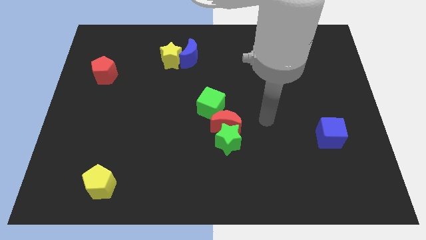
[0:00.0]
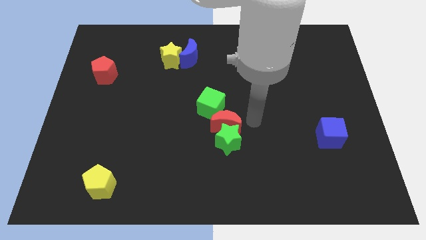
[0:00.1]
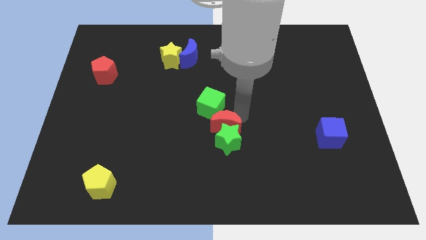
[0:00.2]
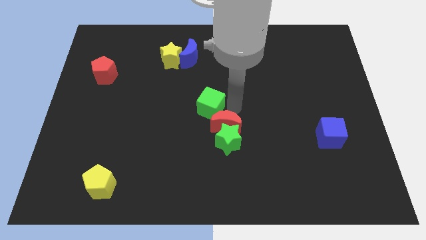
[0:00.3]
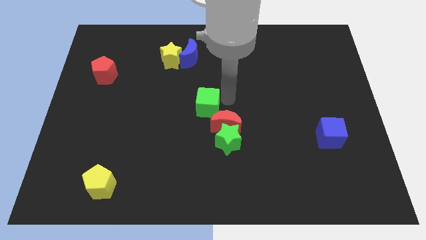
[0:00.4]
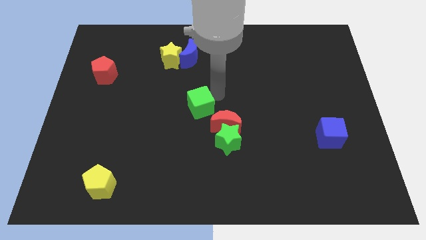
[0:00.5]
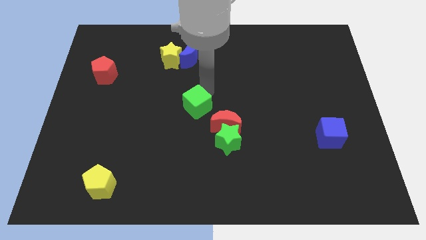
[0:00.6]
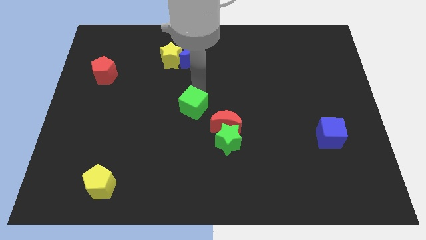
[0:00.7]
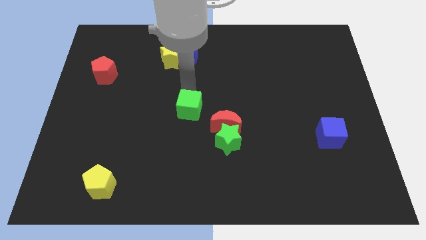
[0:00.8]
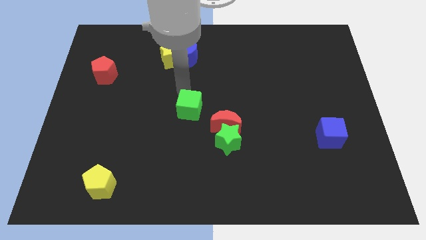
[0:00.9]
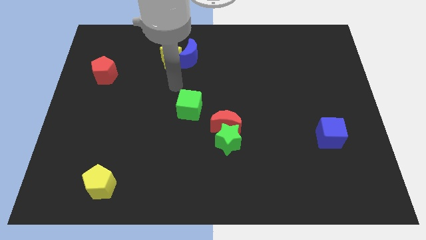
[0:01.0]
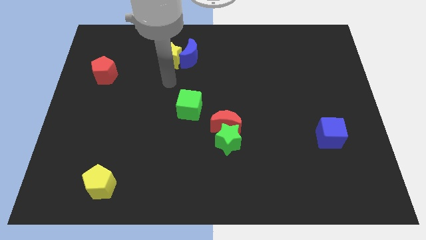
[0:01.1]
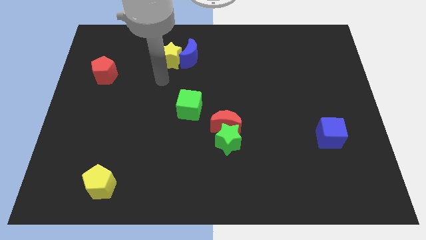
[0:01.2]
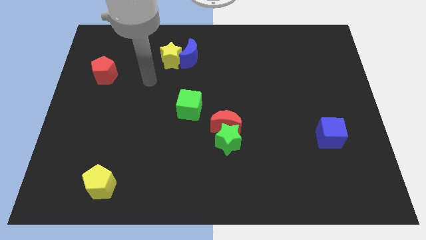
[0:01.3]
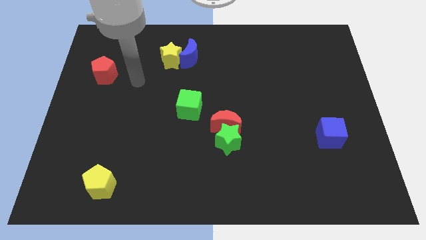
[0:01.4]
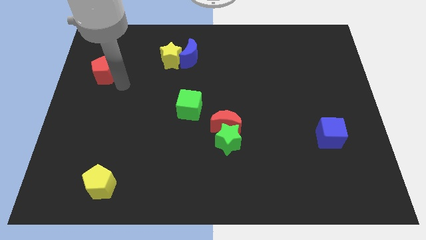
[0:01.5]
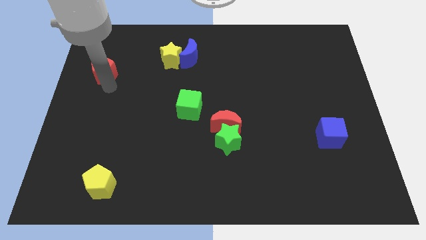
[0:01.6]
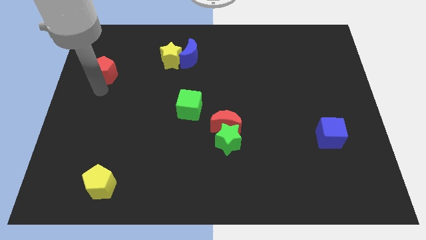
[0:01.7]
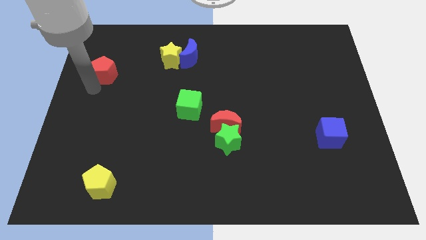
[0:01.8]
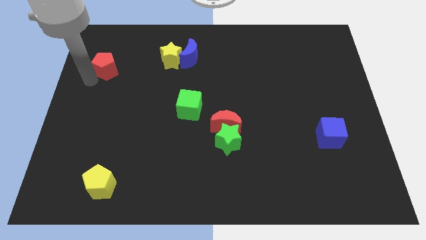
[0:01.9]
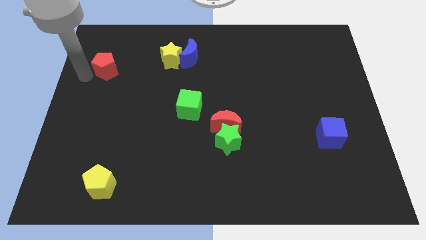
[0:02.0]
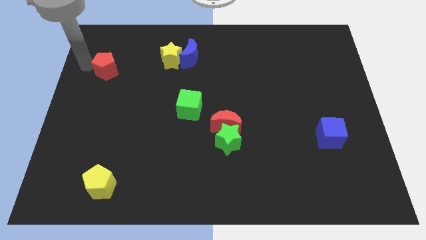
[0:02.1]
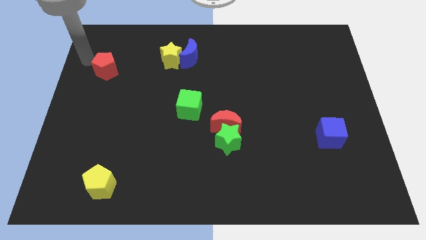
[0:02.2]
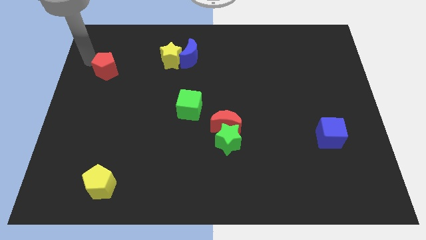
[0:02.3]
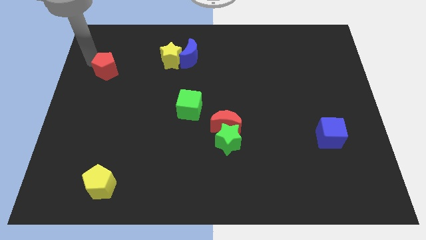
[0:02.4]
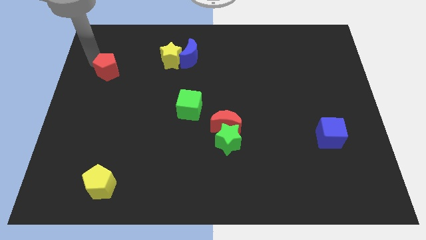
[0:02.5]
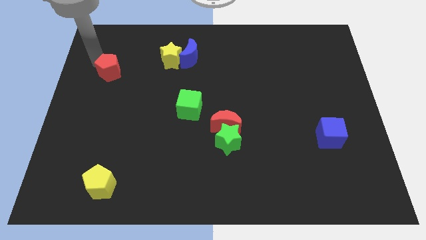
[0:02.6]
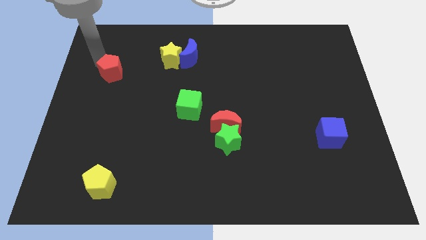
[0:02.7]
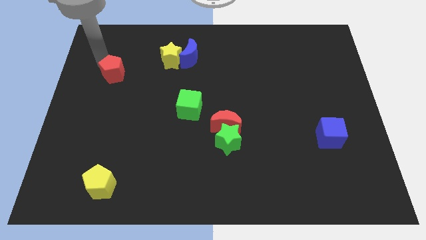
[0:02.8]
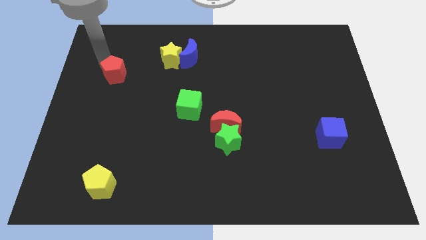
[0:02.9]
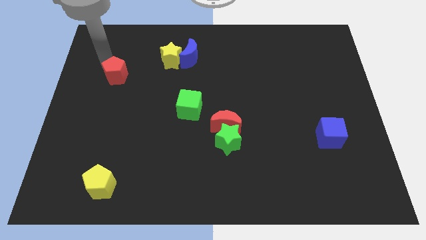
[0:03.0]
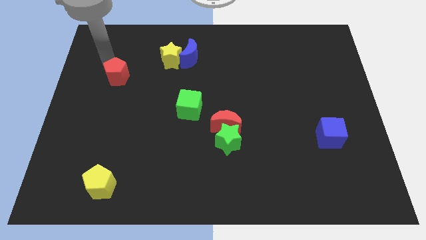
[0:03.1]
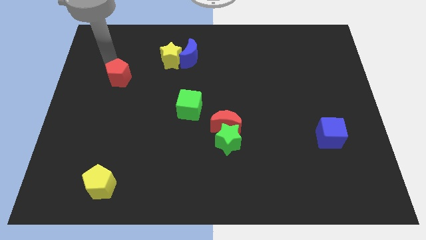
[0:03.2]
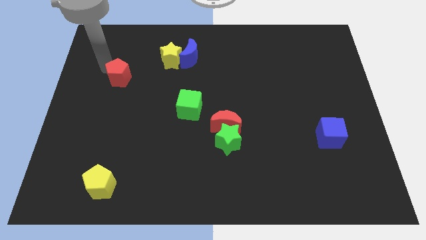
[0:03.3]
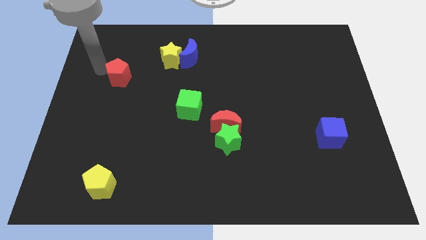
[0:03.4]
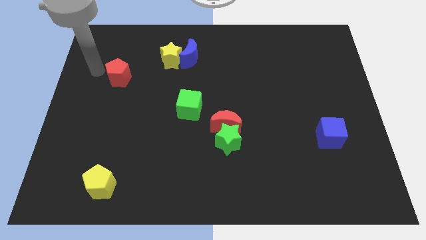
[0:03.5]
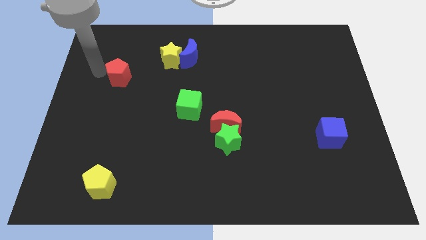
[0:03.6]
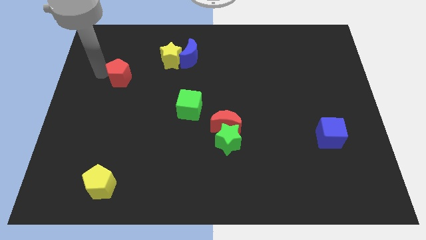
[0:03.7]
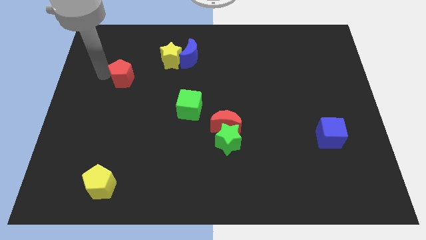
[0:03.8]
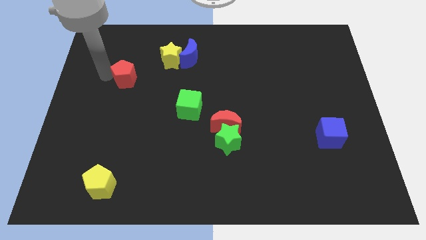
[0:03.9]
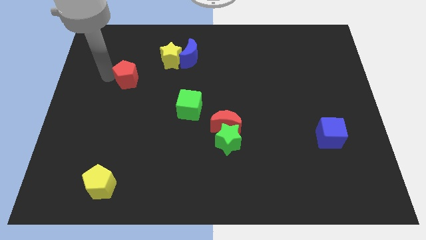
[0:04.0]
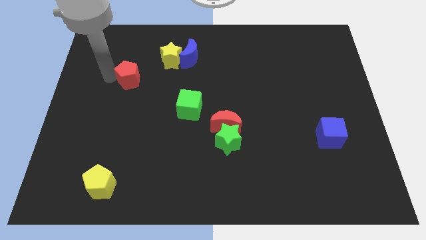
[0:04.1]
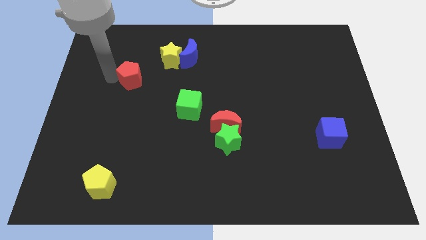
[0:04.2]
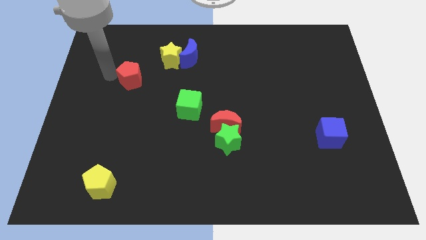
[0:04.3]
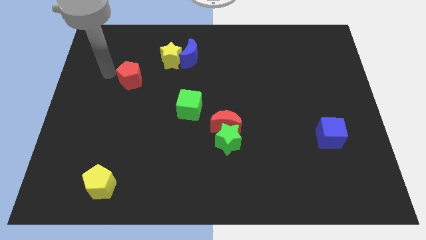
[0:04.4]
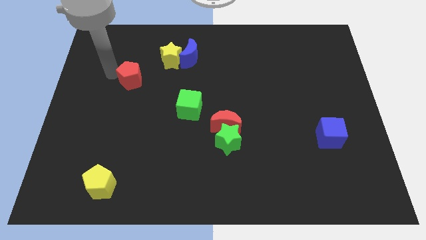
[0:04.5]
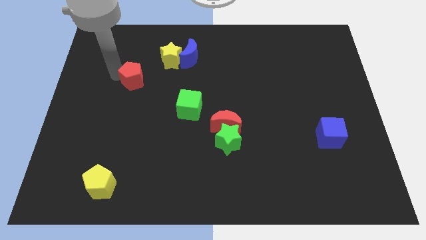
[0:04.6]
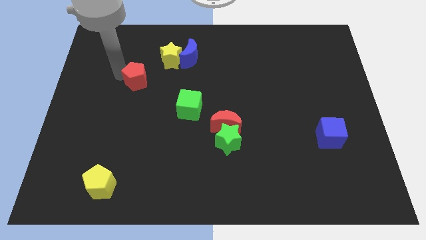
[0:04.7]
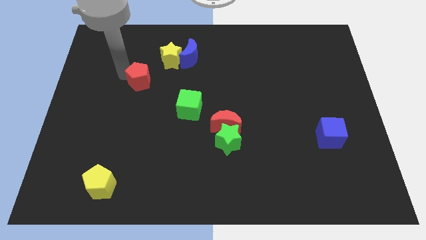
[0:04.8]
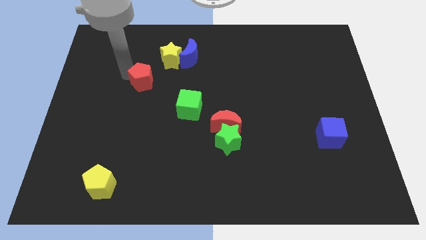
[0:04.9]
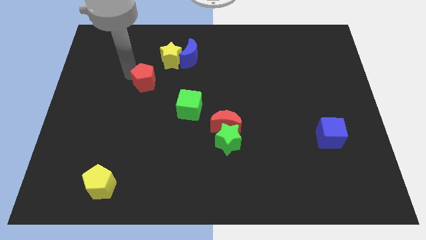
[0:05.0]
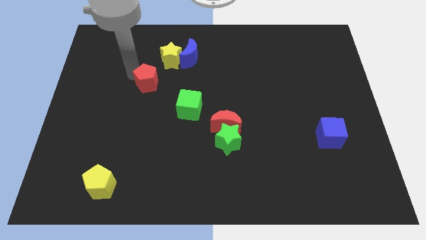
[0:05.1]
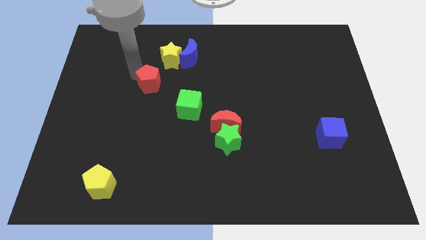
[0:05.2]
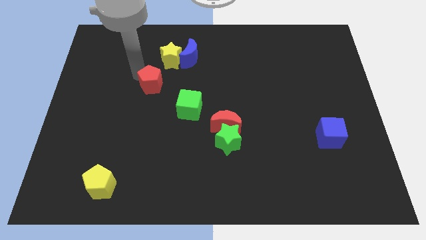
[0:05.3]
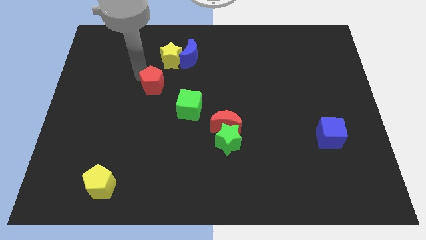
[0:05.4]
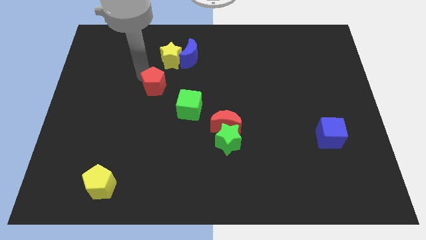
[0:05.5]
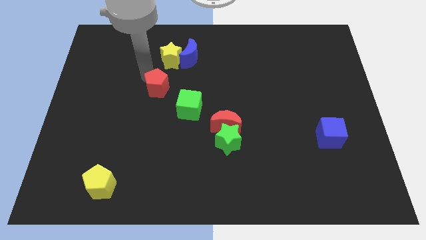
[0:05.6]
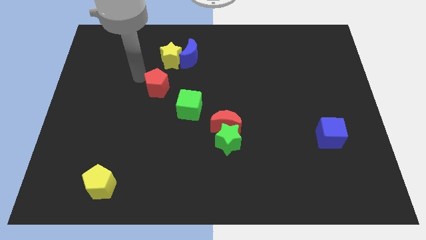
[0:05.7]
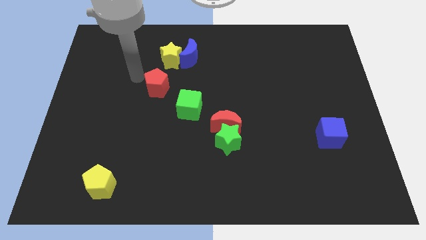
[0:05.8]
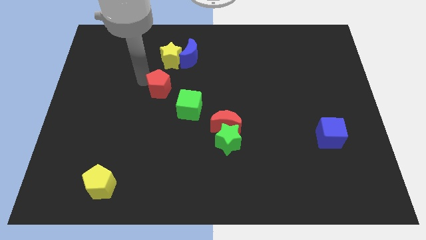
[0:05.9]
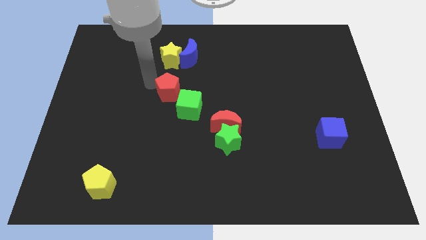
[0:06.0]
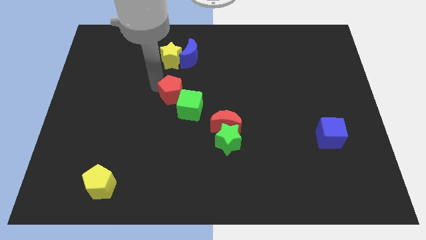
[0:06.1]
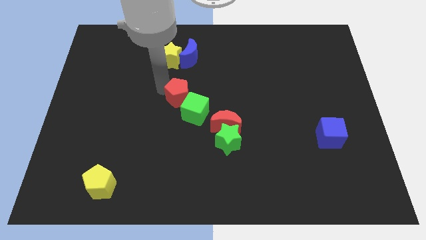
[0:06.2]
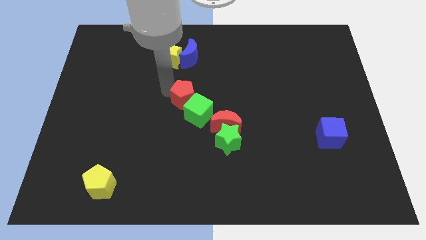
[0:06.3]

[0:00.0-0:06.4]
put the red pentagon close to the green cube

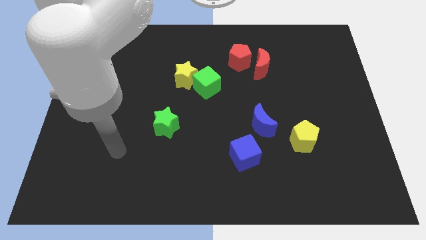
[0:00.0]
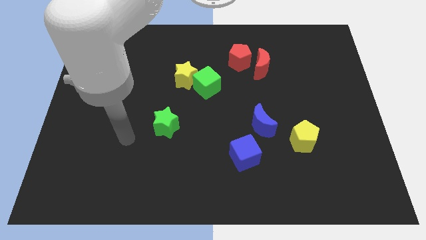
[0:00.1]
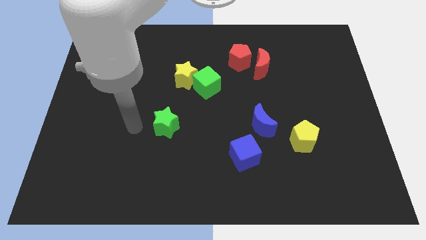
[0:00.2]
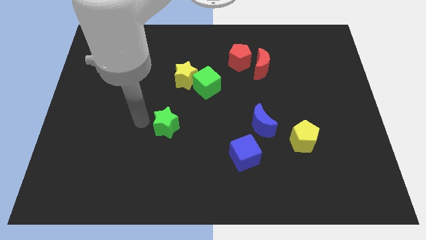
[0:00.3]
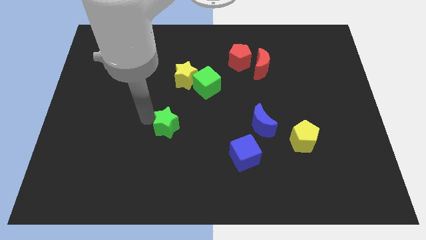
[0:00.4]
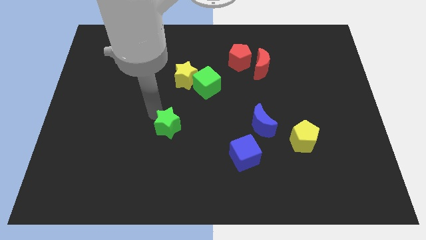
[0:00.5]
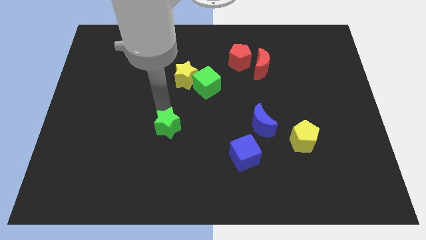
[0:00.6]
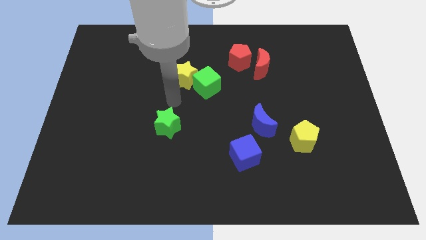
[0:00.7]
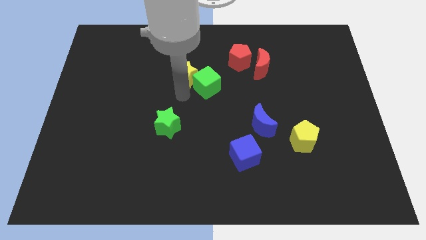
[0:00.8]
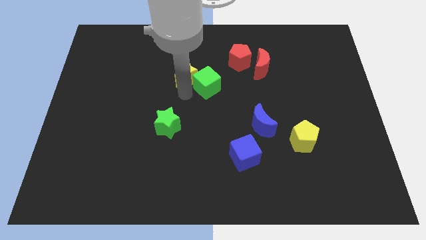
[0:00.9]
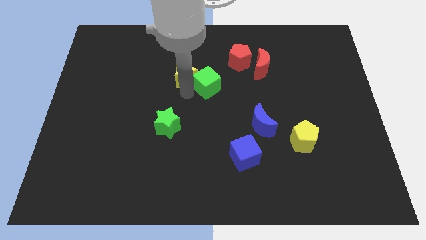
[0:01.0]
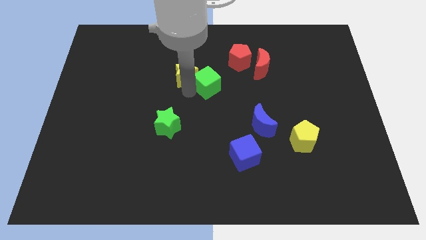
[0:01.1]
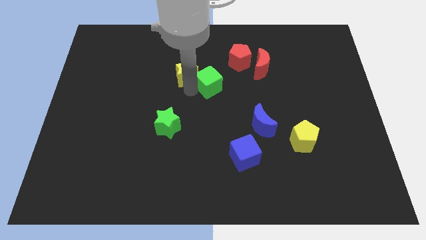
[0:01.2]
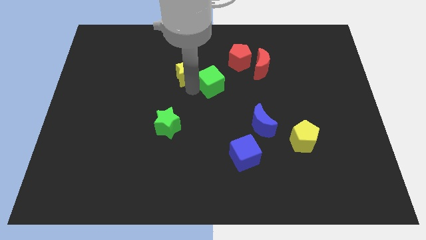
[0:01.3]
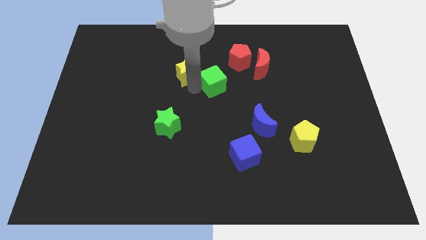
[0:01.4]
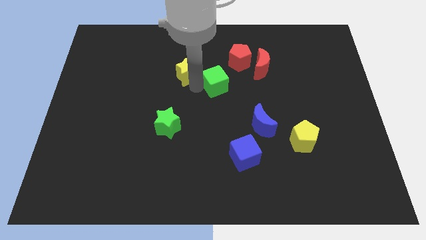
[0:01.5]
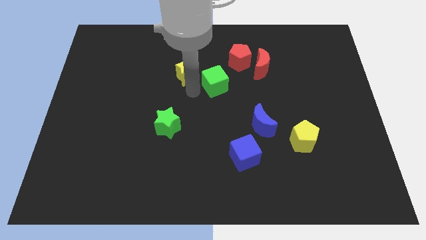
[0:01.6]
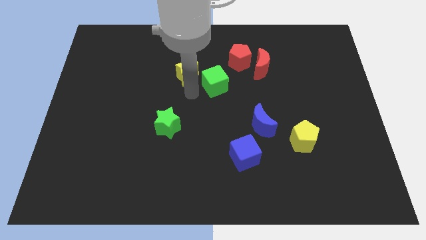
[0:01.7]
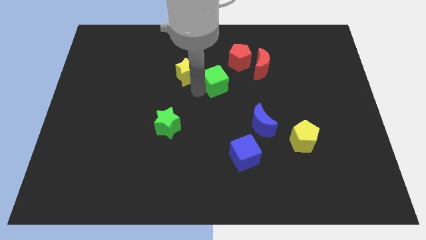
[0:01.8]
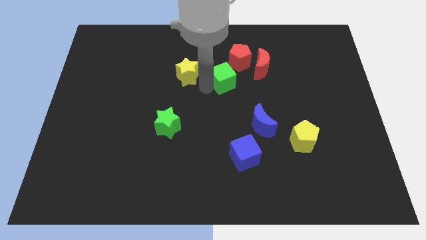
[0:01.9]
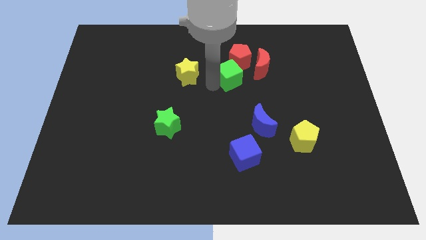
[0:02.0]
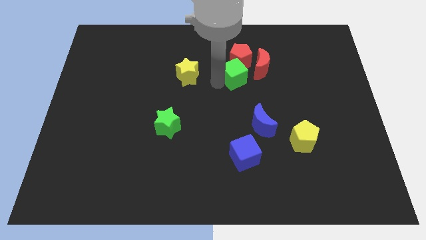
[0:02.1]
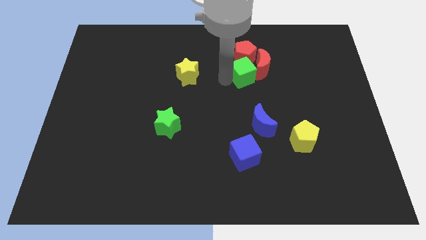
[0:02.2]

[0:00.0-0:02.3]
move the green cube to the red moon
